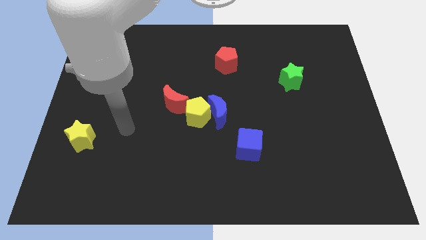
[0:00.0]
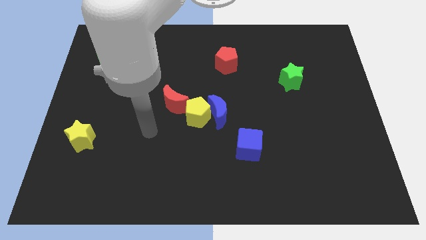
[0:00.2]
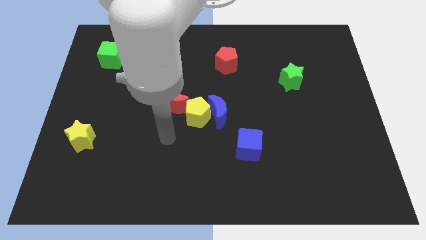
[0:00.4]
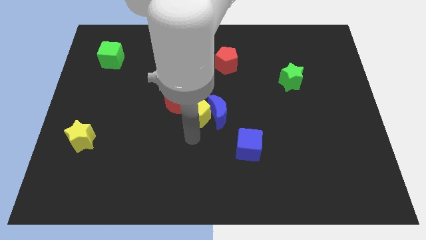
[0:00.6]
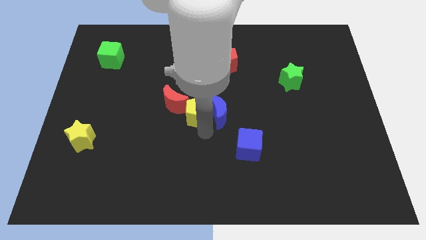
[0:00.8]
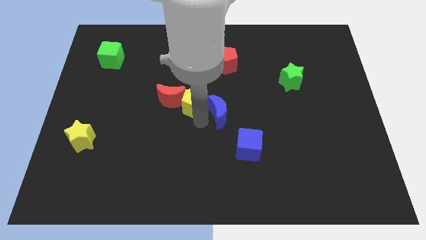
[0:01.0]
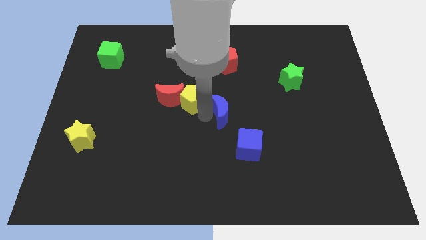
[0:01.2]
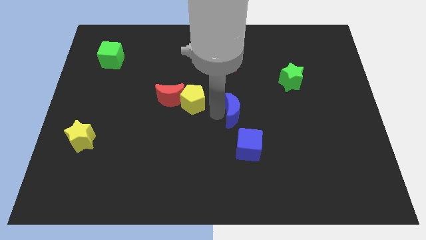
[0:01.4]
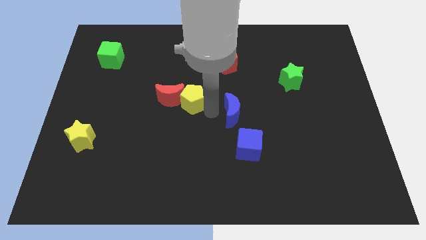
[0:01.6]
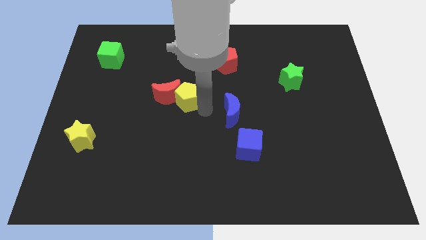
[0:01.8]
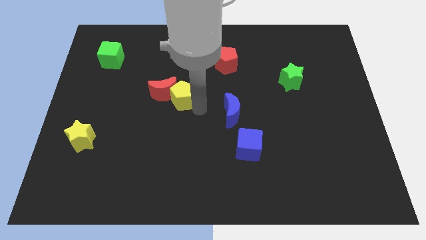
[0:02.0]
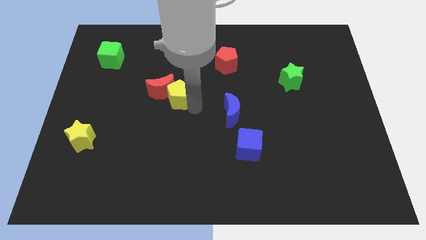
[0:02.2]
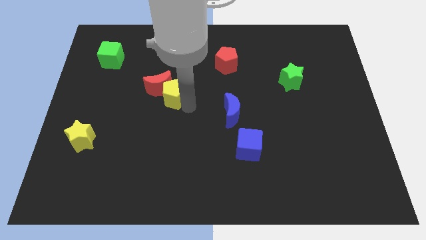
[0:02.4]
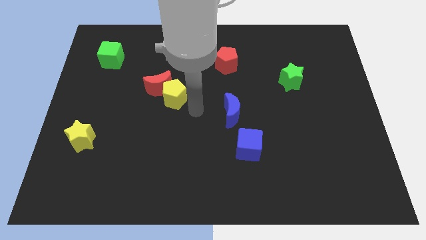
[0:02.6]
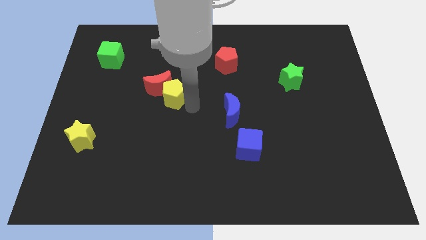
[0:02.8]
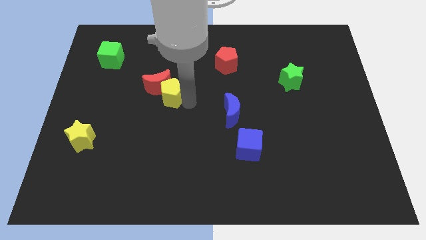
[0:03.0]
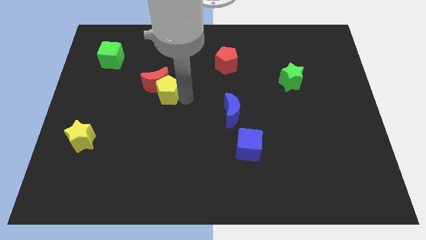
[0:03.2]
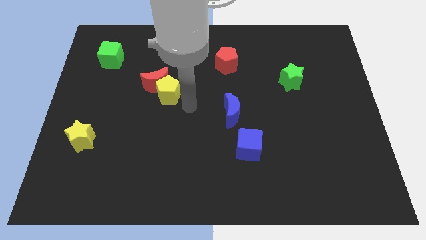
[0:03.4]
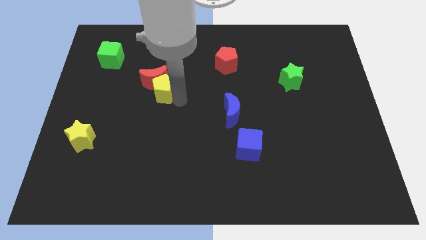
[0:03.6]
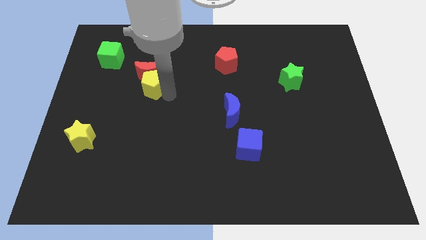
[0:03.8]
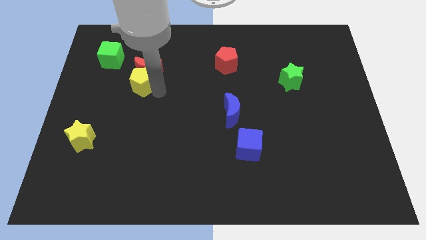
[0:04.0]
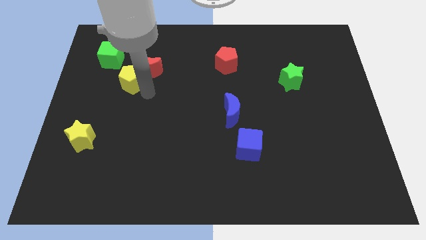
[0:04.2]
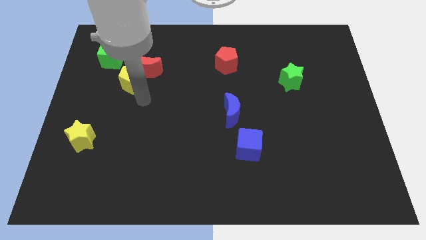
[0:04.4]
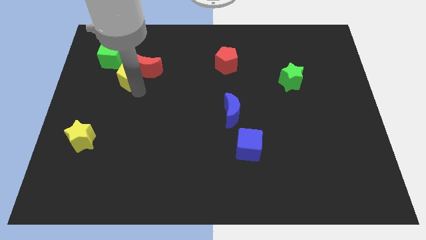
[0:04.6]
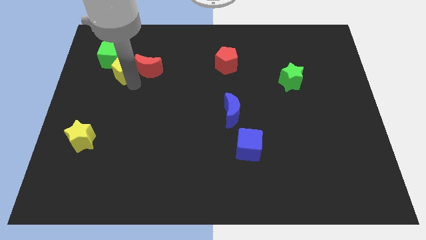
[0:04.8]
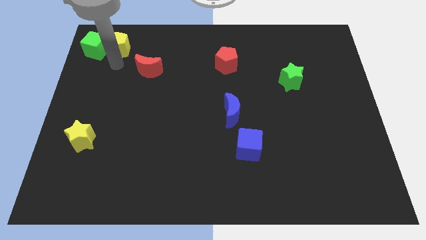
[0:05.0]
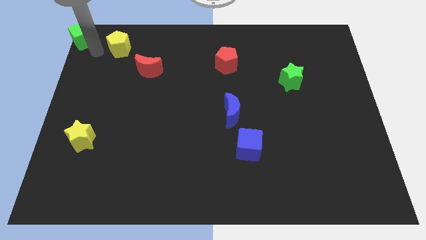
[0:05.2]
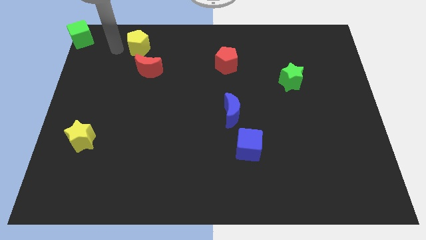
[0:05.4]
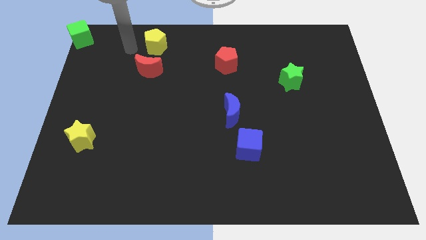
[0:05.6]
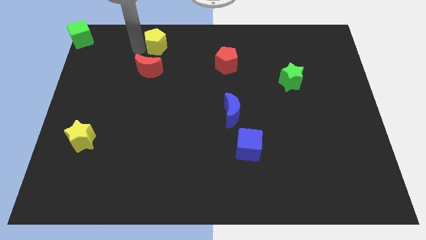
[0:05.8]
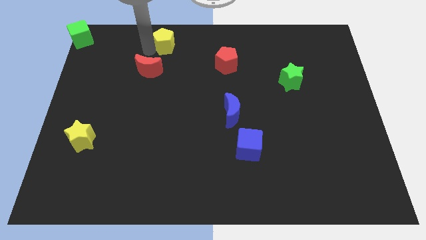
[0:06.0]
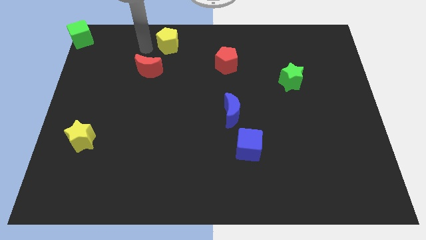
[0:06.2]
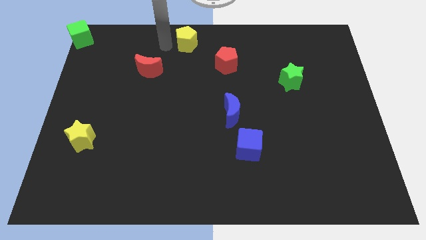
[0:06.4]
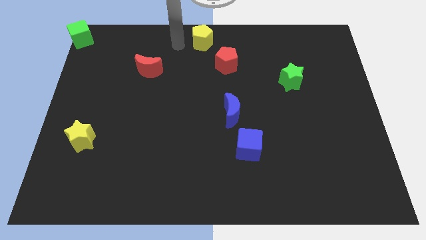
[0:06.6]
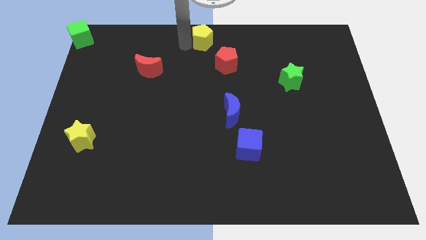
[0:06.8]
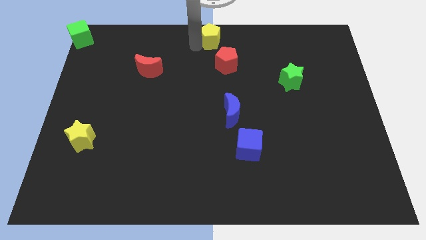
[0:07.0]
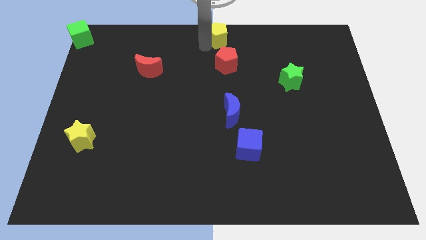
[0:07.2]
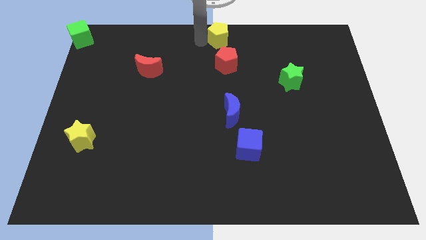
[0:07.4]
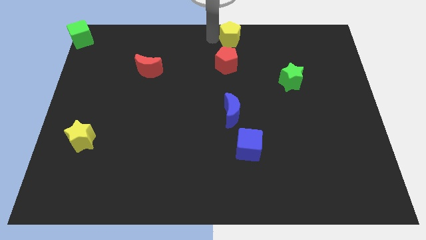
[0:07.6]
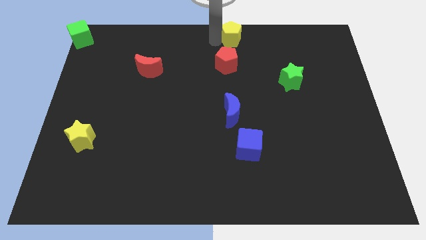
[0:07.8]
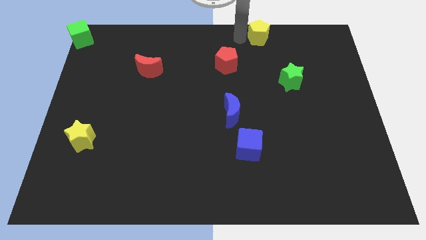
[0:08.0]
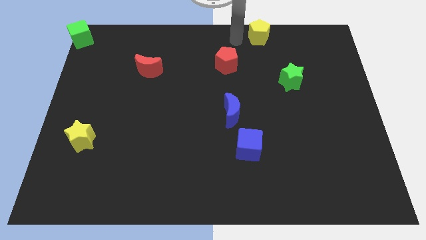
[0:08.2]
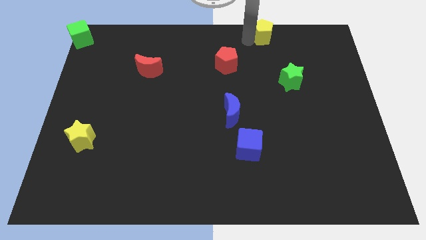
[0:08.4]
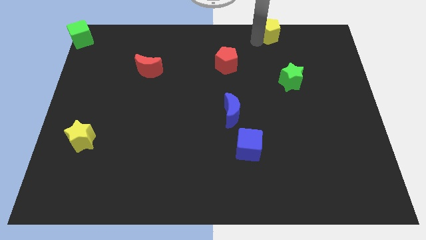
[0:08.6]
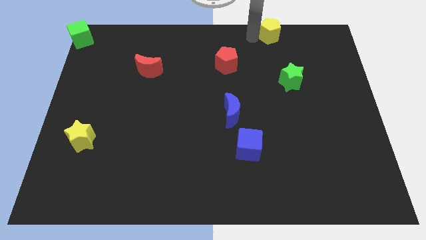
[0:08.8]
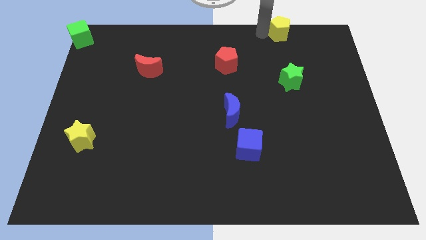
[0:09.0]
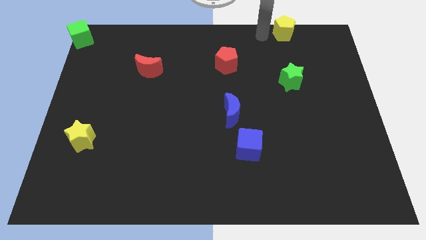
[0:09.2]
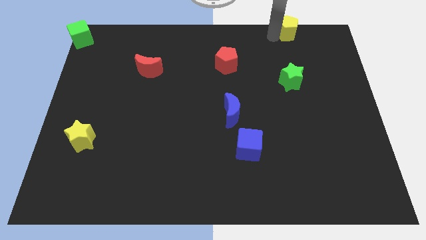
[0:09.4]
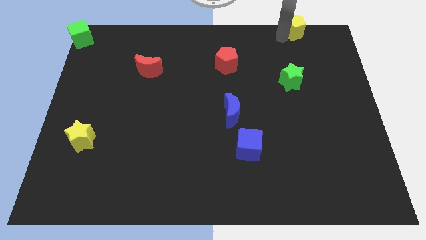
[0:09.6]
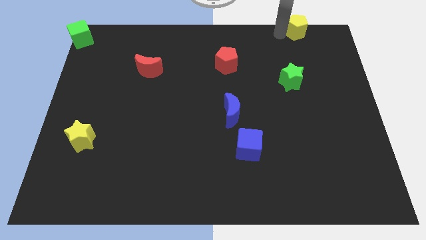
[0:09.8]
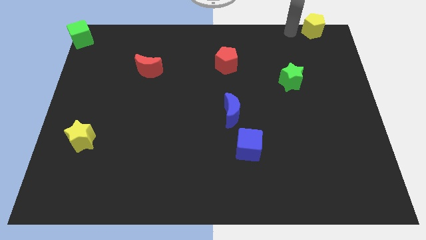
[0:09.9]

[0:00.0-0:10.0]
push the yellow pentagon to the upper right corner

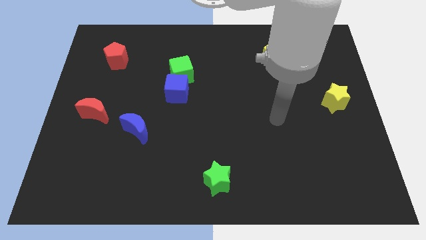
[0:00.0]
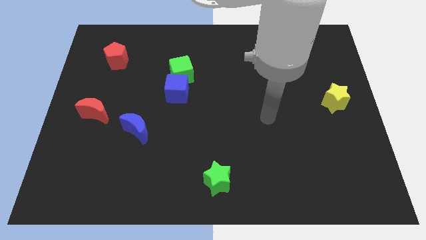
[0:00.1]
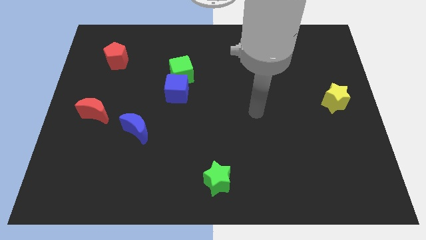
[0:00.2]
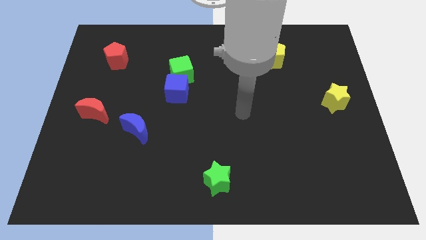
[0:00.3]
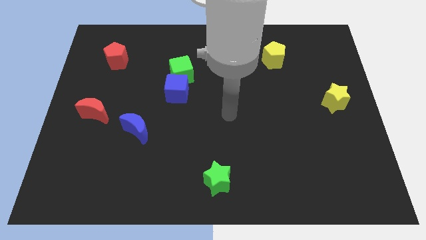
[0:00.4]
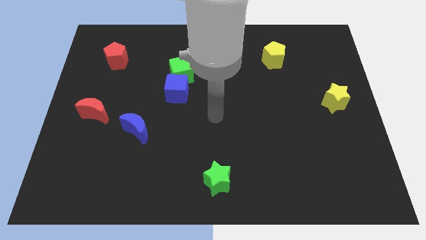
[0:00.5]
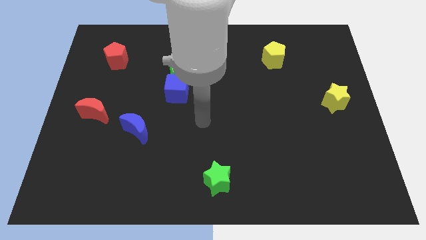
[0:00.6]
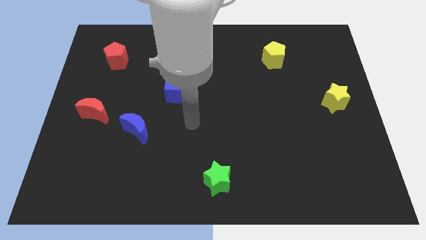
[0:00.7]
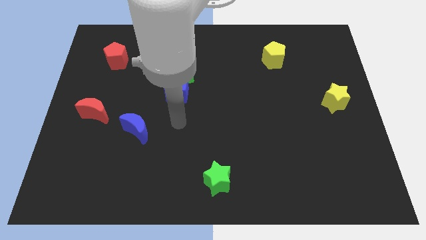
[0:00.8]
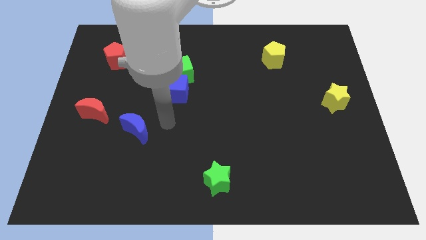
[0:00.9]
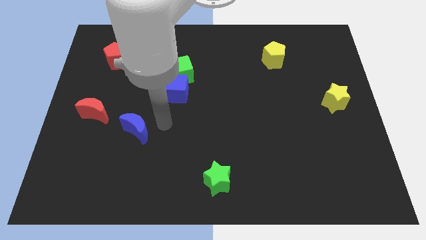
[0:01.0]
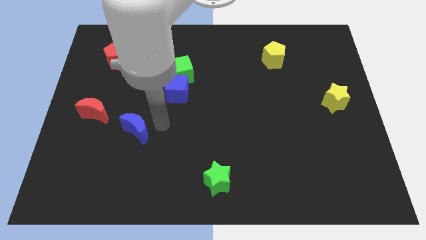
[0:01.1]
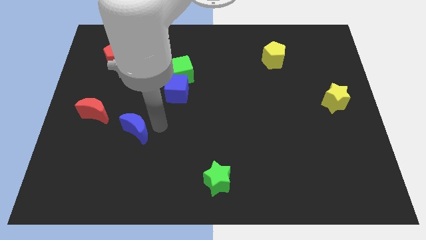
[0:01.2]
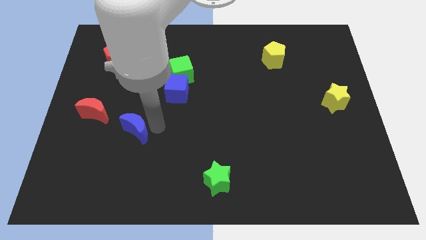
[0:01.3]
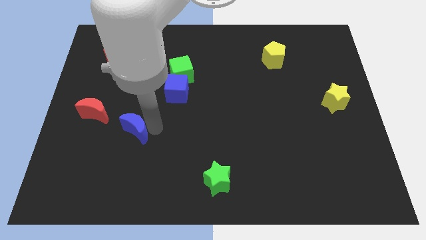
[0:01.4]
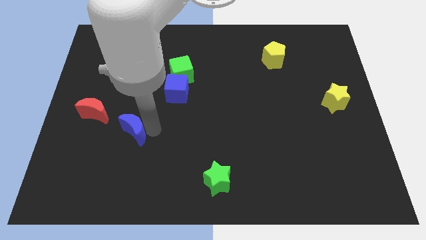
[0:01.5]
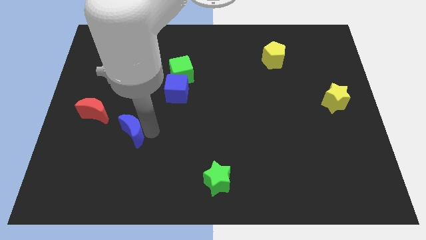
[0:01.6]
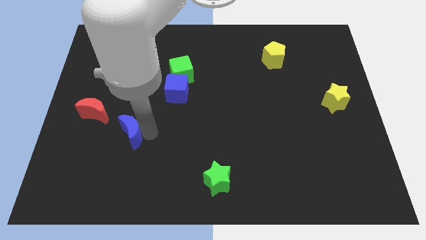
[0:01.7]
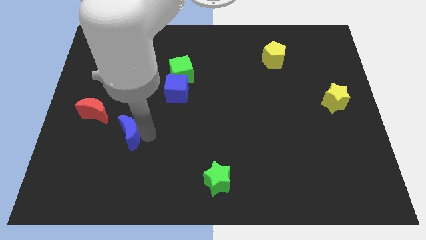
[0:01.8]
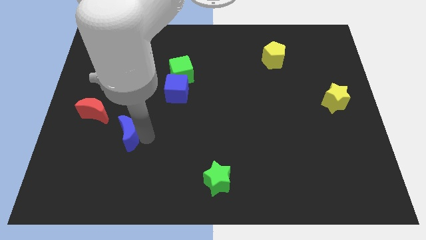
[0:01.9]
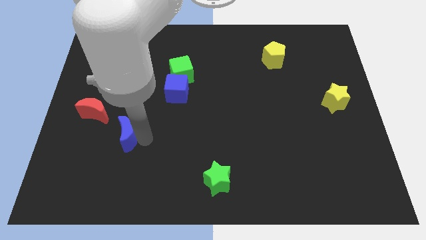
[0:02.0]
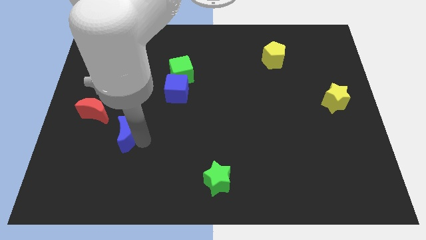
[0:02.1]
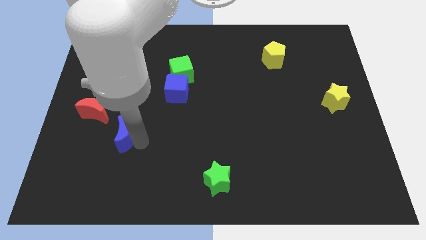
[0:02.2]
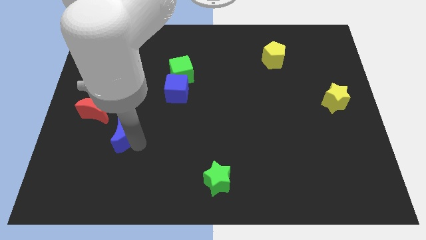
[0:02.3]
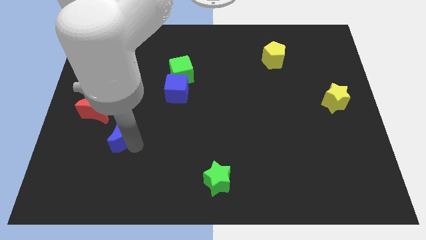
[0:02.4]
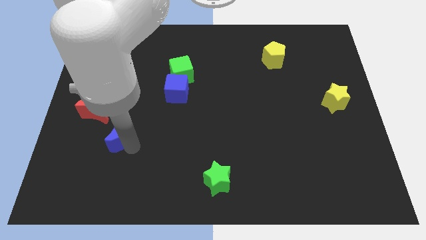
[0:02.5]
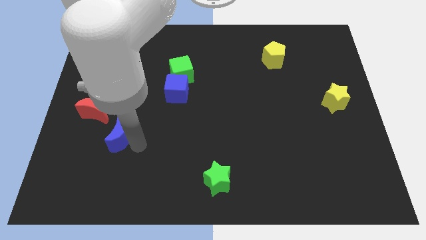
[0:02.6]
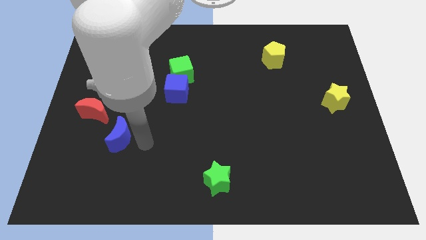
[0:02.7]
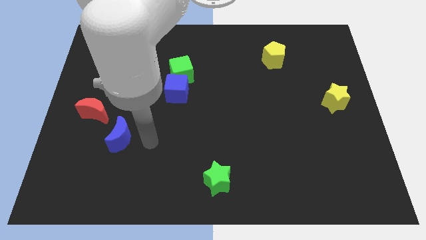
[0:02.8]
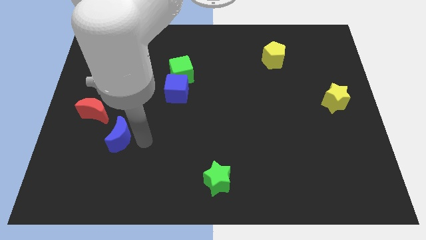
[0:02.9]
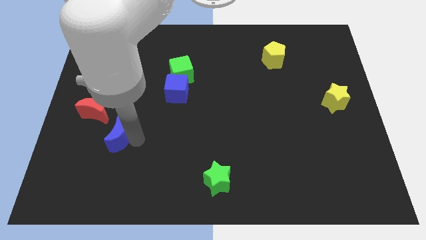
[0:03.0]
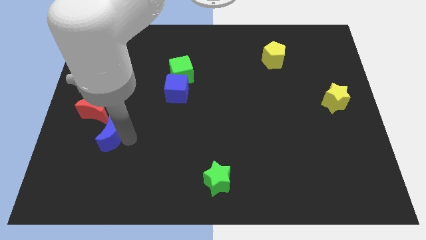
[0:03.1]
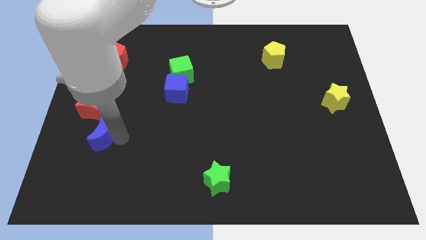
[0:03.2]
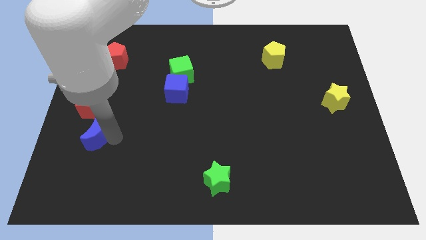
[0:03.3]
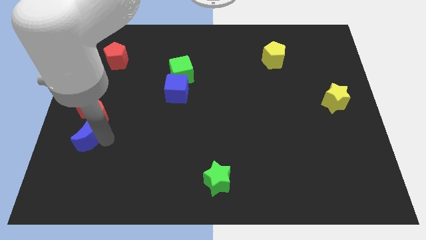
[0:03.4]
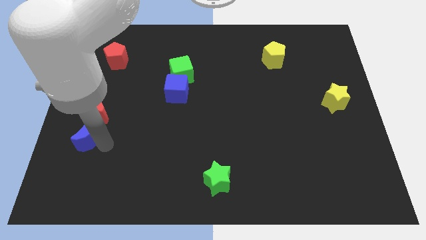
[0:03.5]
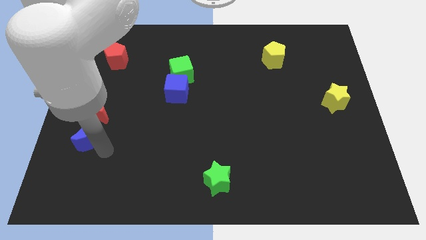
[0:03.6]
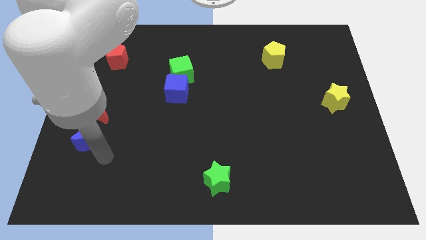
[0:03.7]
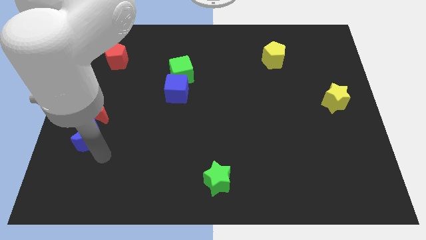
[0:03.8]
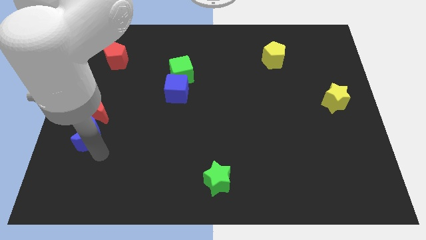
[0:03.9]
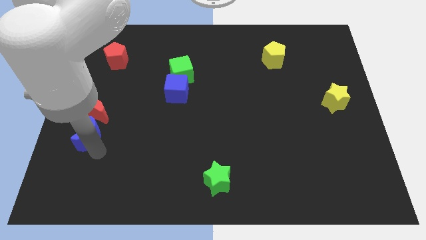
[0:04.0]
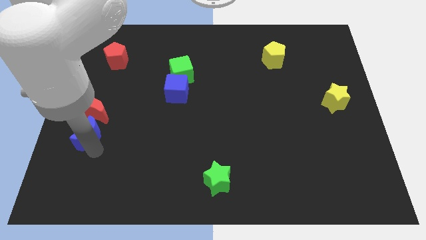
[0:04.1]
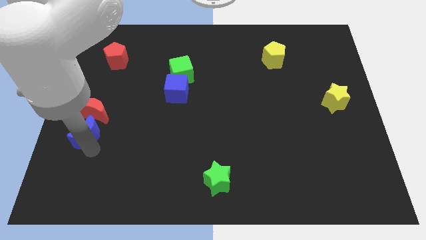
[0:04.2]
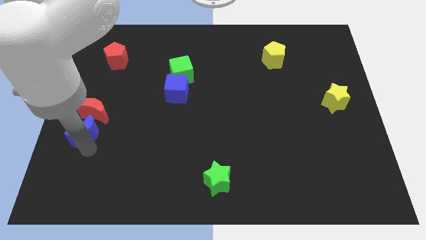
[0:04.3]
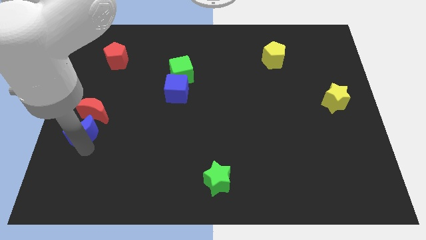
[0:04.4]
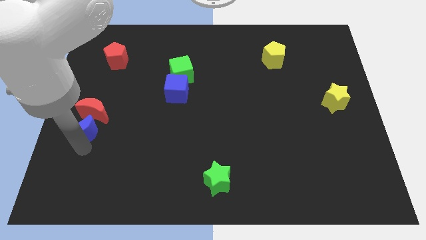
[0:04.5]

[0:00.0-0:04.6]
put the blue moon to the center left
